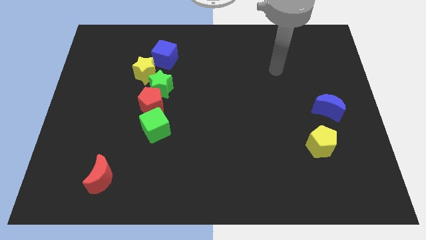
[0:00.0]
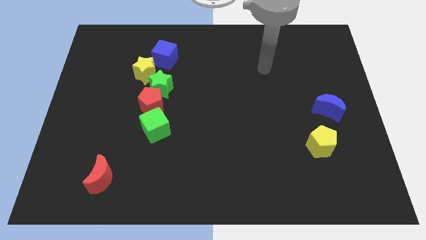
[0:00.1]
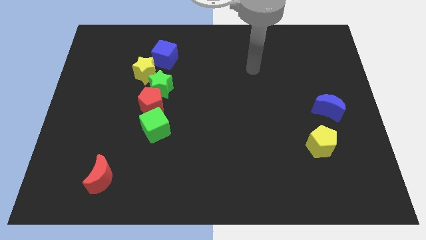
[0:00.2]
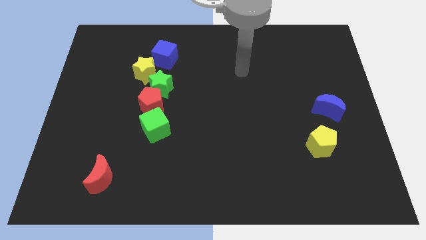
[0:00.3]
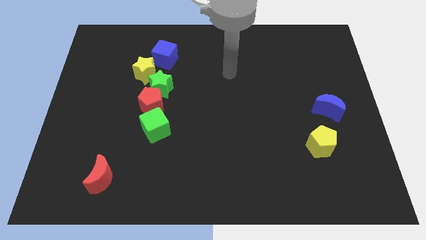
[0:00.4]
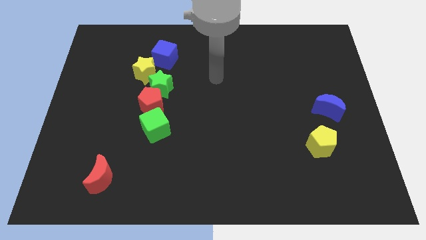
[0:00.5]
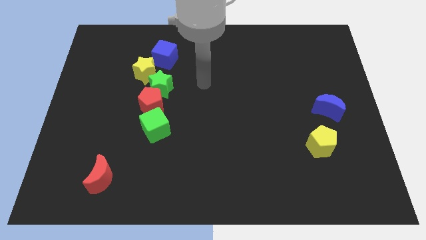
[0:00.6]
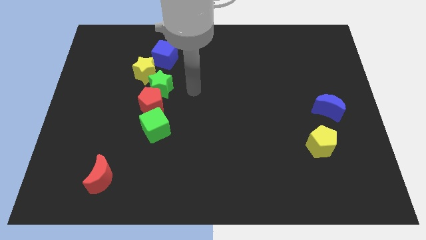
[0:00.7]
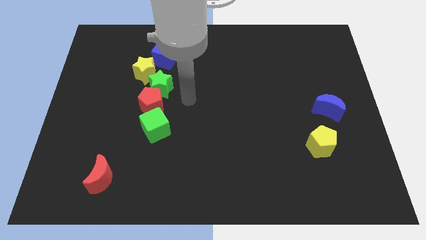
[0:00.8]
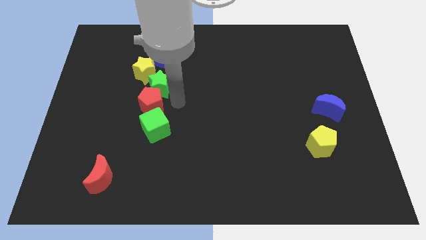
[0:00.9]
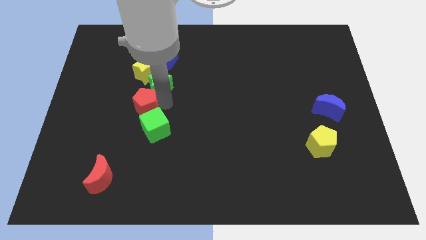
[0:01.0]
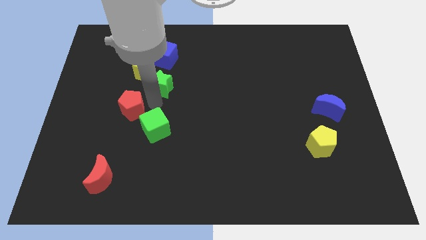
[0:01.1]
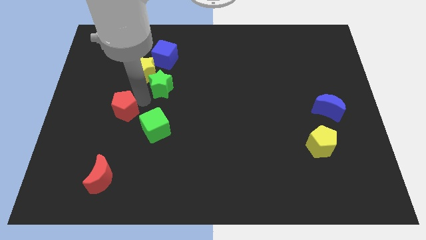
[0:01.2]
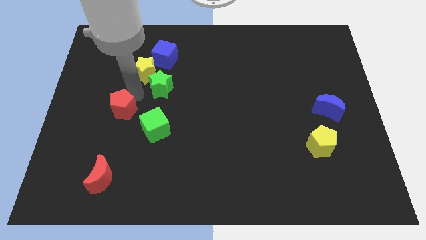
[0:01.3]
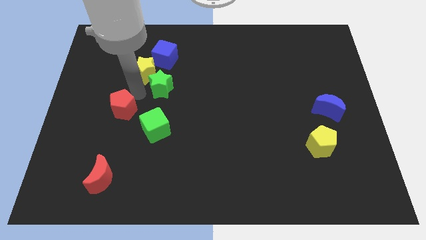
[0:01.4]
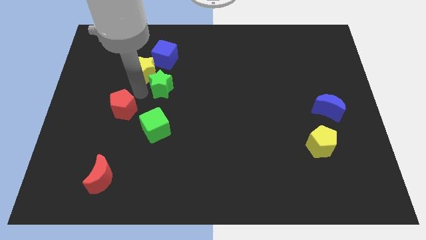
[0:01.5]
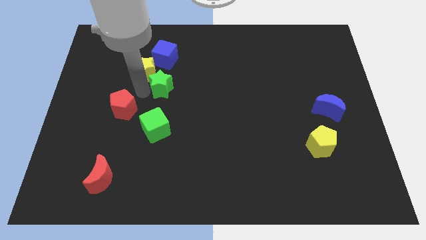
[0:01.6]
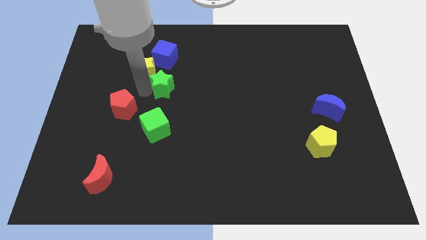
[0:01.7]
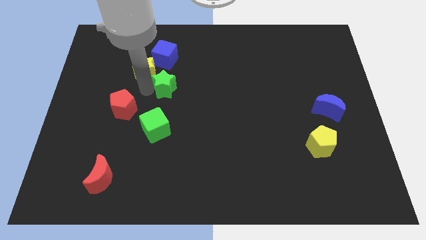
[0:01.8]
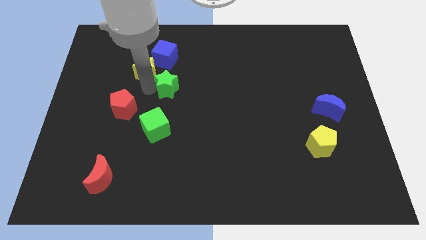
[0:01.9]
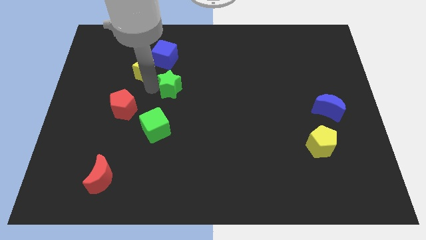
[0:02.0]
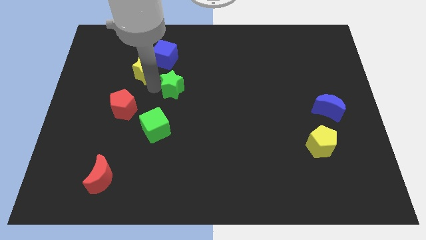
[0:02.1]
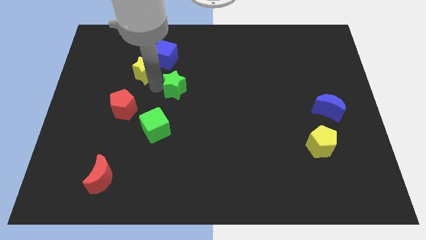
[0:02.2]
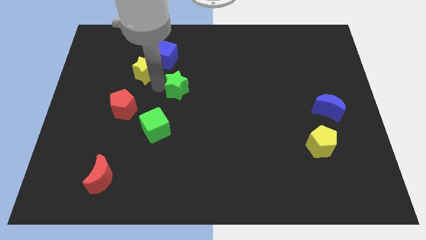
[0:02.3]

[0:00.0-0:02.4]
separate the green star from the red pentagon and yellow star

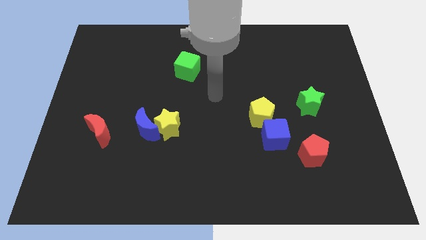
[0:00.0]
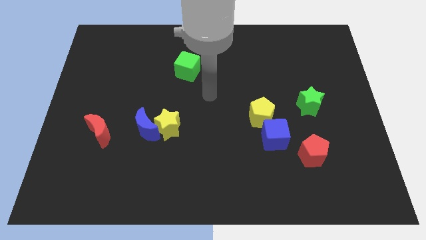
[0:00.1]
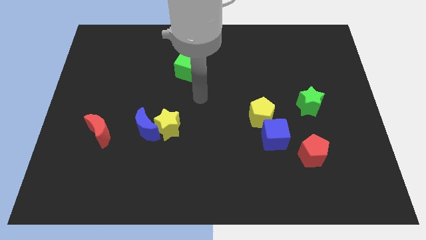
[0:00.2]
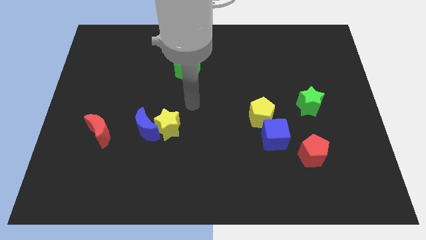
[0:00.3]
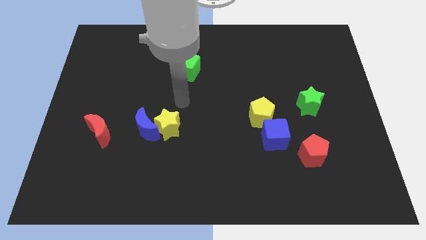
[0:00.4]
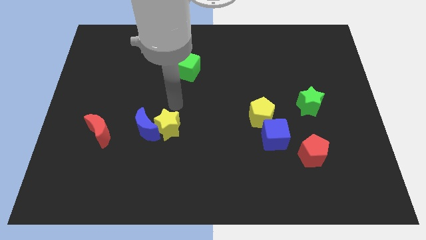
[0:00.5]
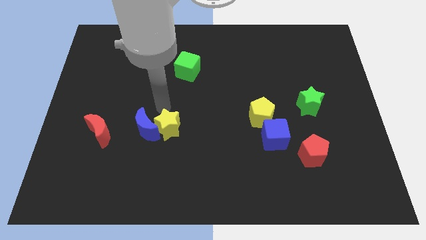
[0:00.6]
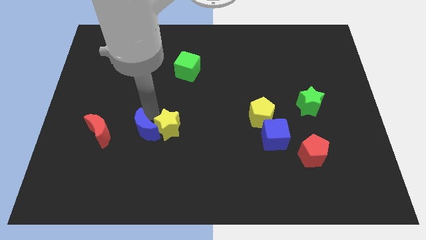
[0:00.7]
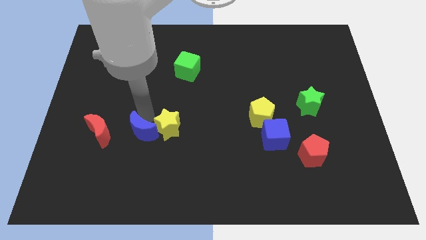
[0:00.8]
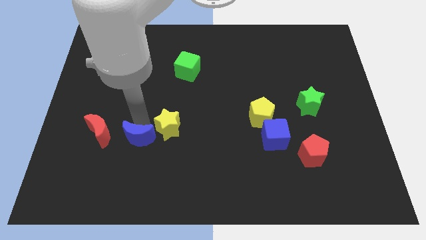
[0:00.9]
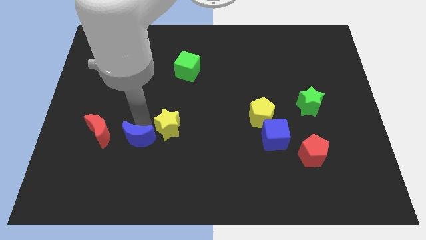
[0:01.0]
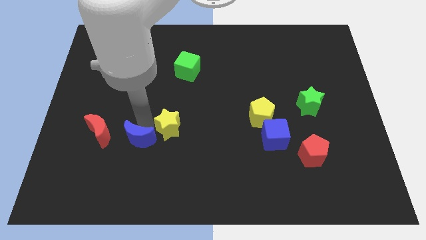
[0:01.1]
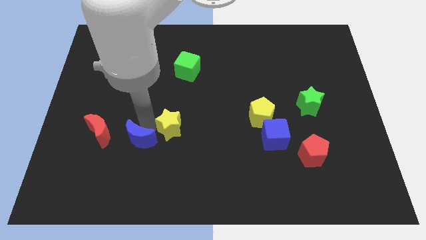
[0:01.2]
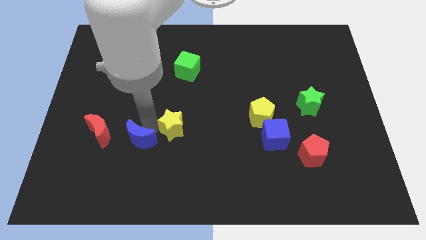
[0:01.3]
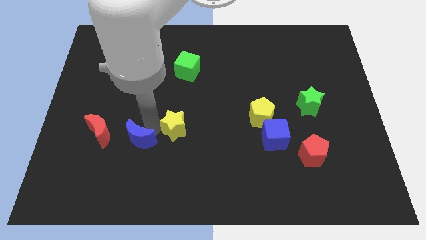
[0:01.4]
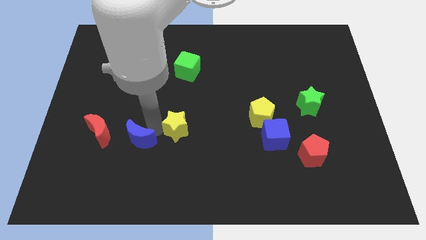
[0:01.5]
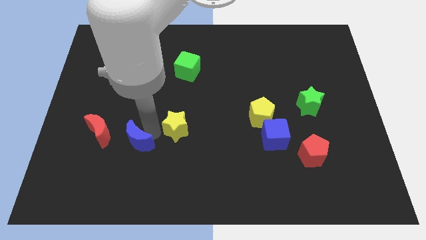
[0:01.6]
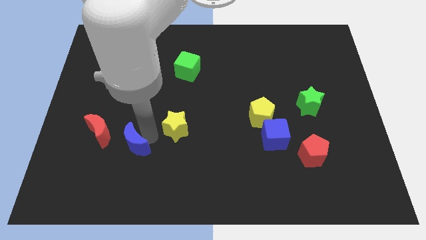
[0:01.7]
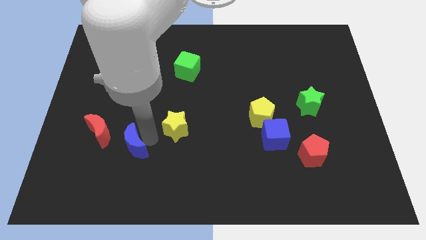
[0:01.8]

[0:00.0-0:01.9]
pull the yellow star apart from the blue moon

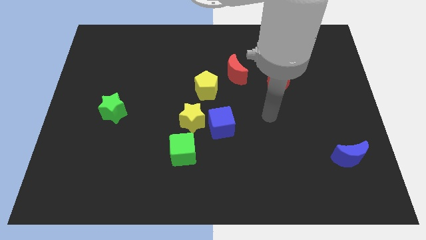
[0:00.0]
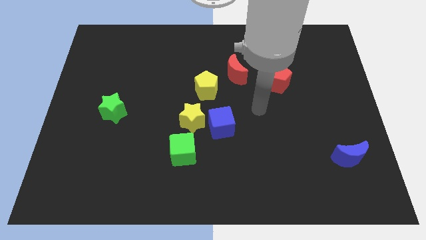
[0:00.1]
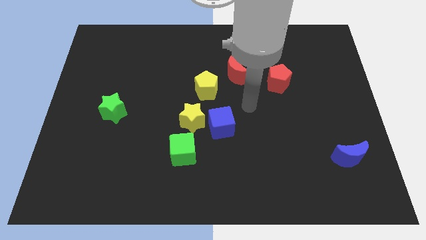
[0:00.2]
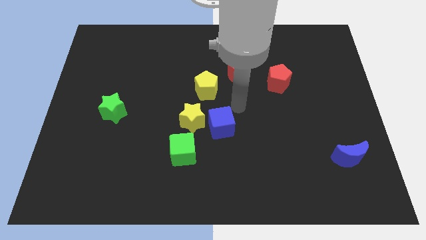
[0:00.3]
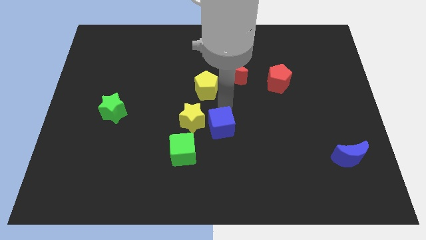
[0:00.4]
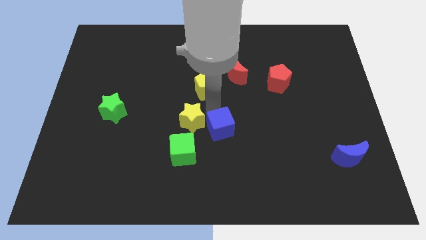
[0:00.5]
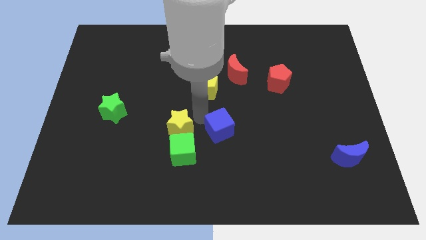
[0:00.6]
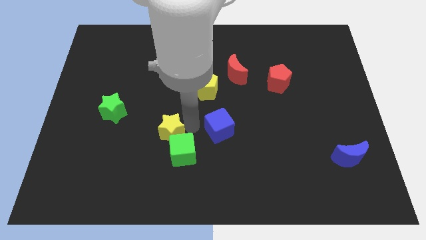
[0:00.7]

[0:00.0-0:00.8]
separate the blue cube from the yellow star

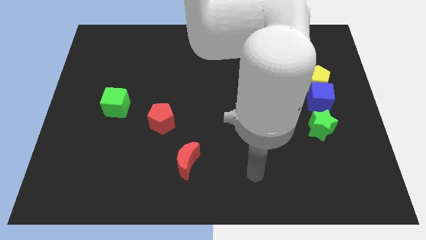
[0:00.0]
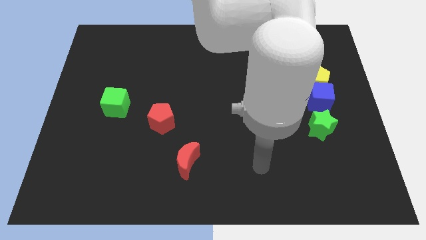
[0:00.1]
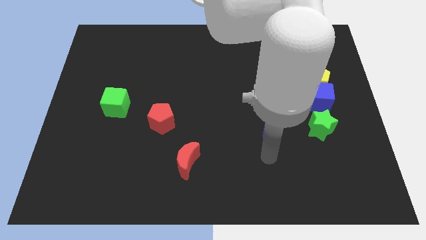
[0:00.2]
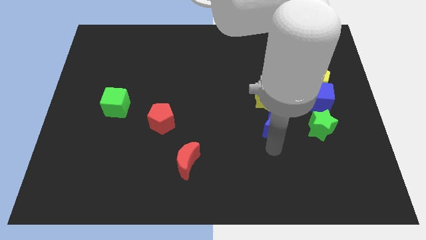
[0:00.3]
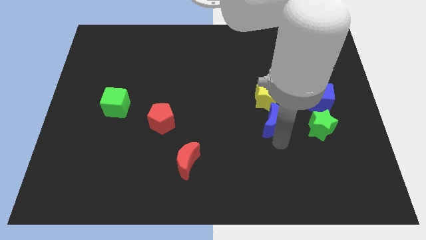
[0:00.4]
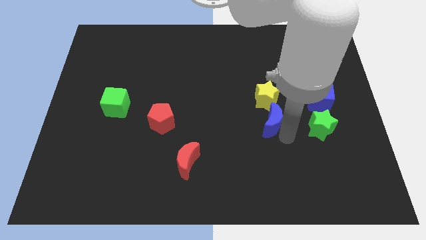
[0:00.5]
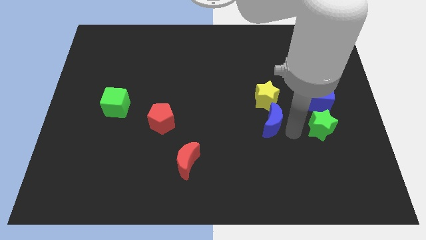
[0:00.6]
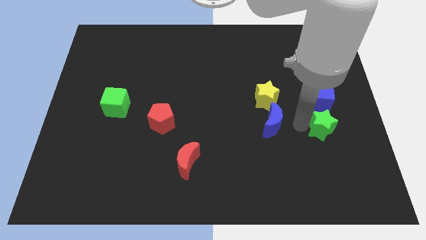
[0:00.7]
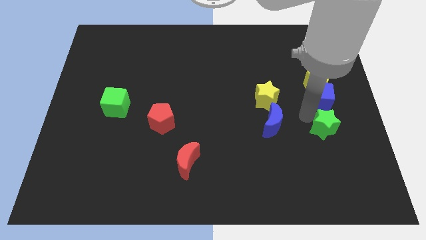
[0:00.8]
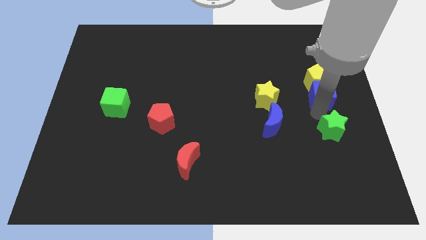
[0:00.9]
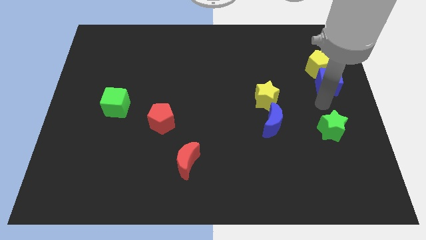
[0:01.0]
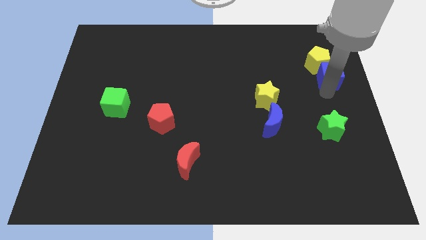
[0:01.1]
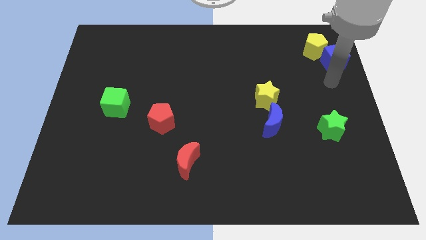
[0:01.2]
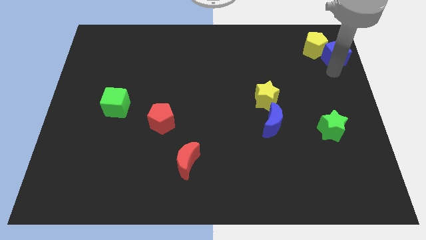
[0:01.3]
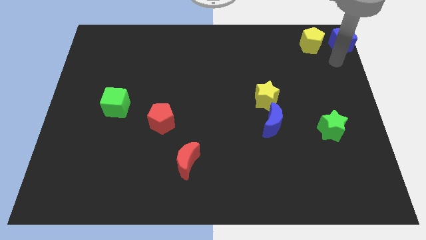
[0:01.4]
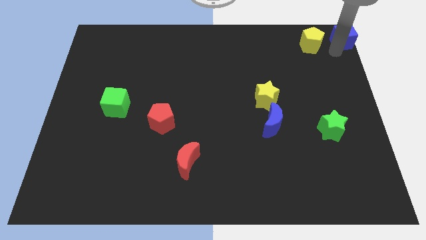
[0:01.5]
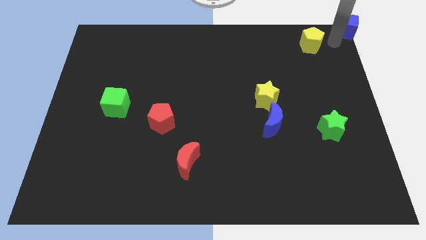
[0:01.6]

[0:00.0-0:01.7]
pull the yellow pentagon apart from the blue cube

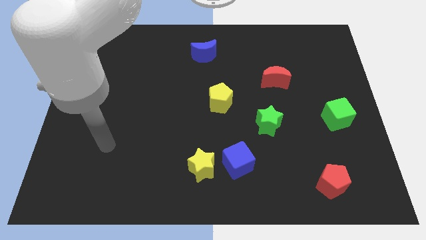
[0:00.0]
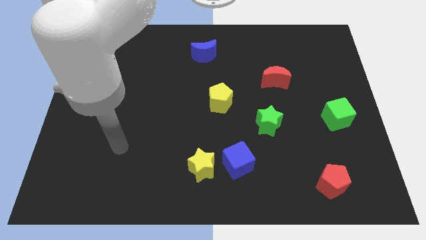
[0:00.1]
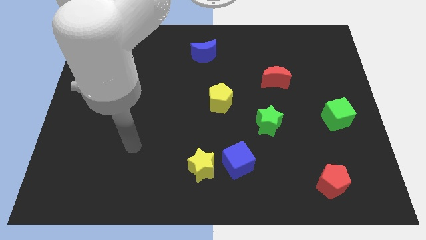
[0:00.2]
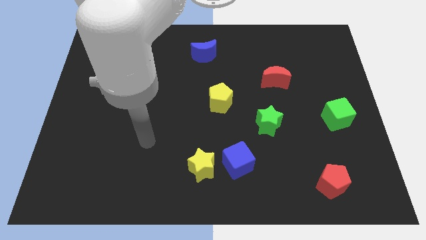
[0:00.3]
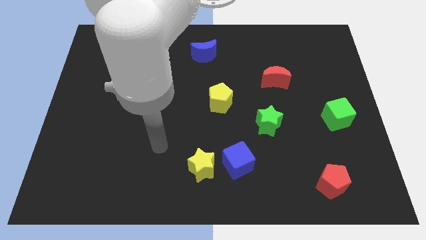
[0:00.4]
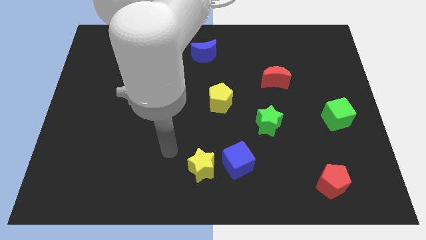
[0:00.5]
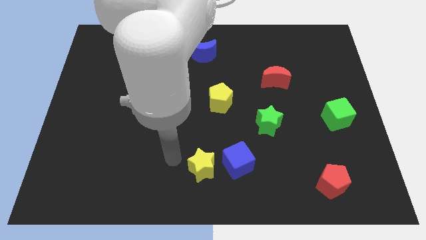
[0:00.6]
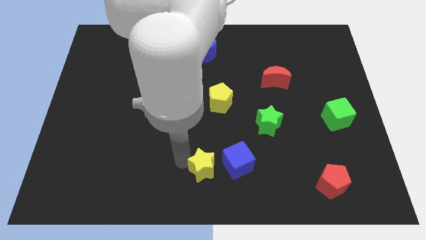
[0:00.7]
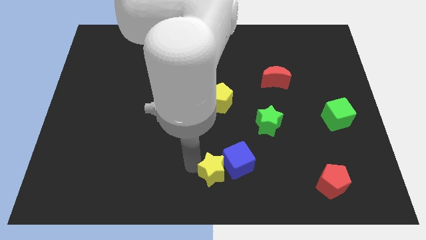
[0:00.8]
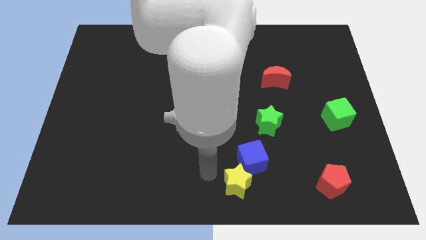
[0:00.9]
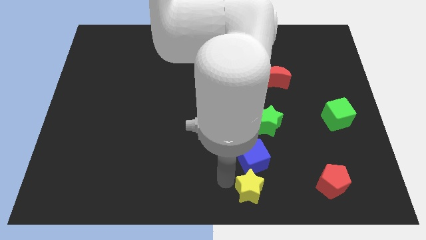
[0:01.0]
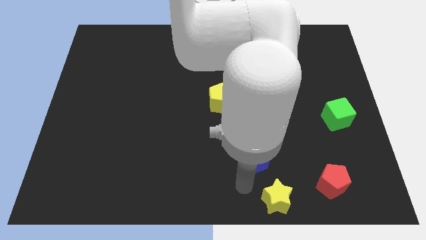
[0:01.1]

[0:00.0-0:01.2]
pull the blue cube apart from the yellow star

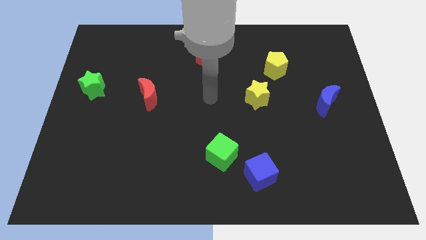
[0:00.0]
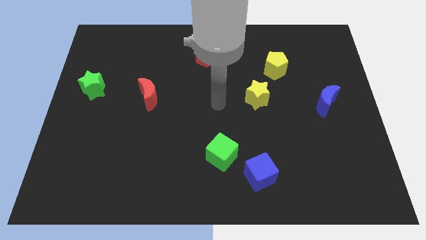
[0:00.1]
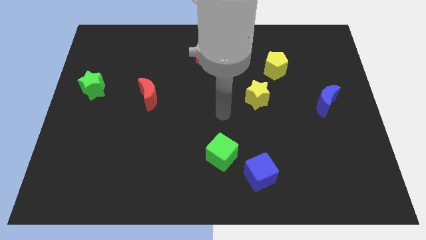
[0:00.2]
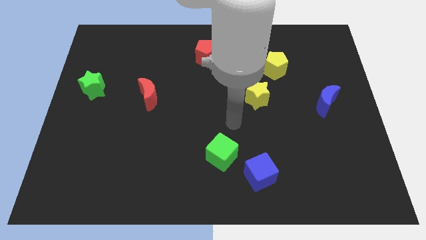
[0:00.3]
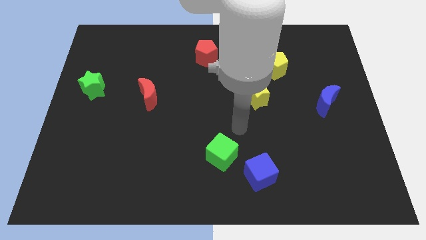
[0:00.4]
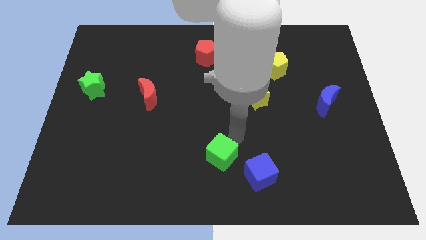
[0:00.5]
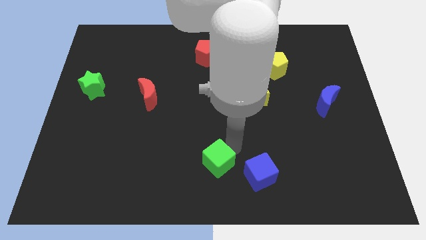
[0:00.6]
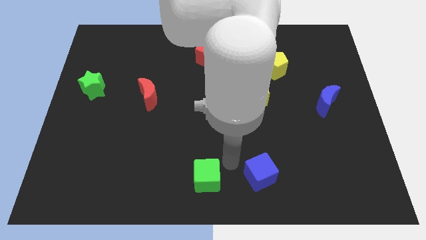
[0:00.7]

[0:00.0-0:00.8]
pull the blue cube apart from the green cube

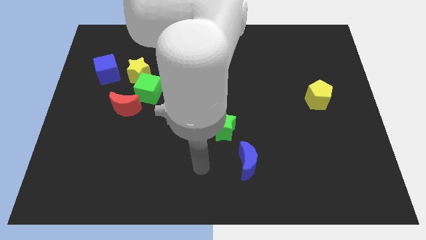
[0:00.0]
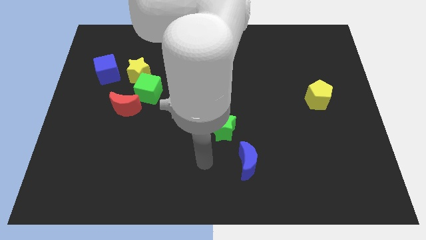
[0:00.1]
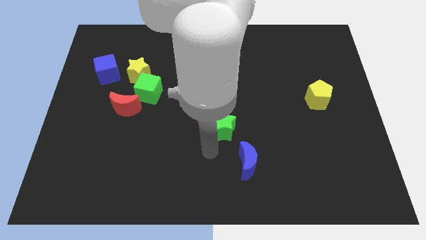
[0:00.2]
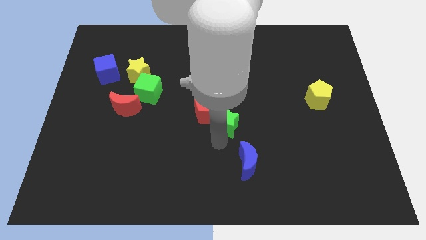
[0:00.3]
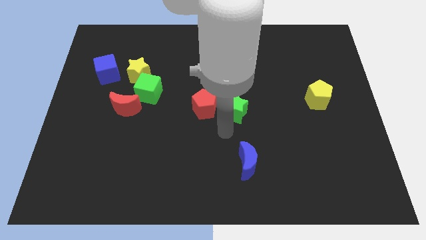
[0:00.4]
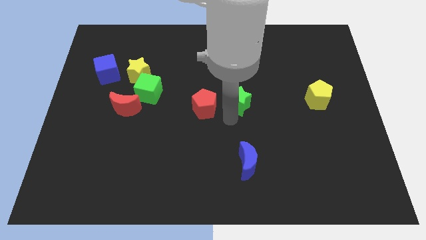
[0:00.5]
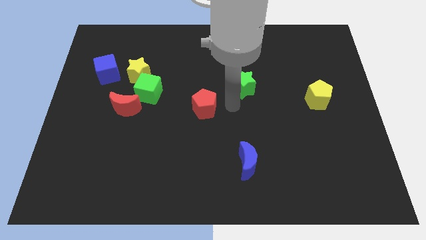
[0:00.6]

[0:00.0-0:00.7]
move the red pentagon away from the green star
